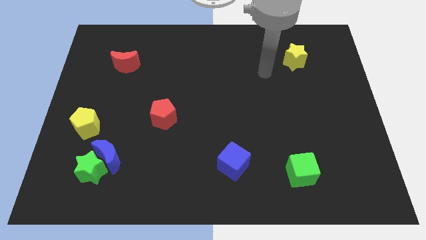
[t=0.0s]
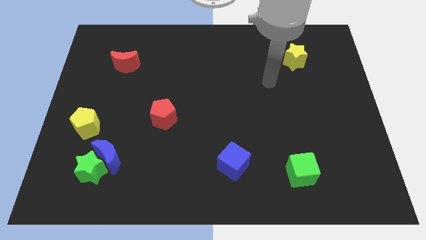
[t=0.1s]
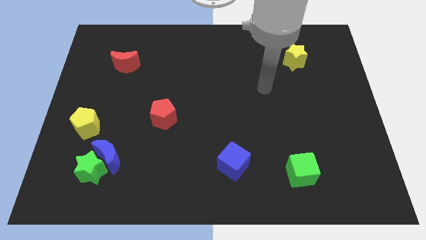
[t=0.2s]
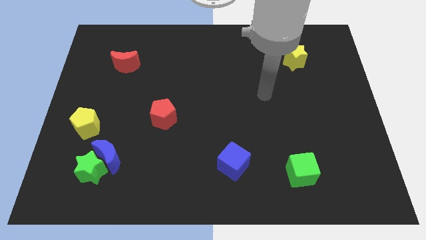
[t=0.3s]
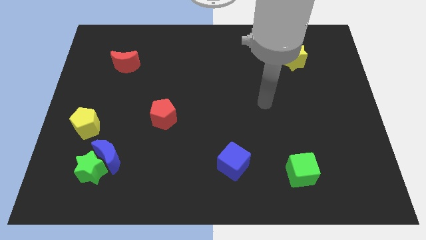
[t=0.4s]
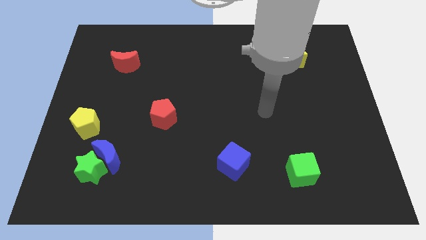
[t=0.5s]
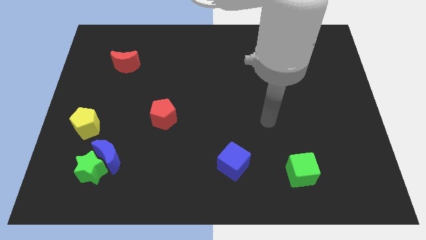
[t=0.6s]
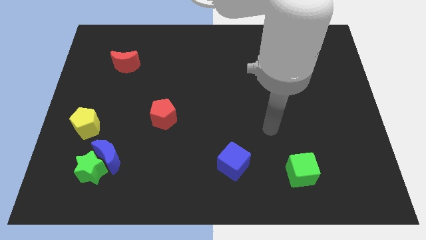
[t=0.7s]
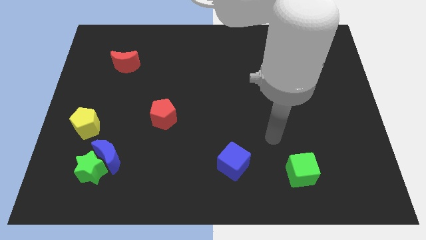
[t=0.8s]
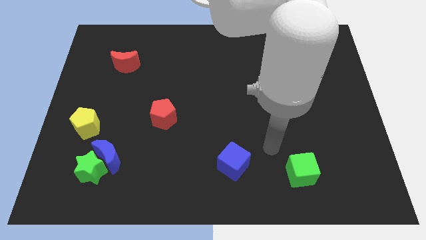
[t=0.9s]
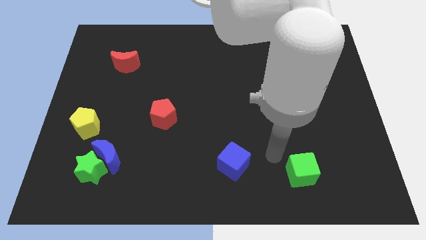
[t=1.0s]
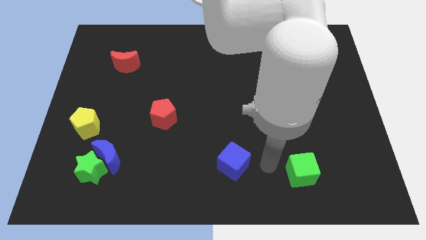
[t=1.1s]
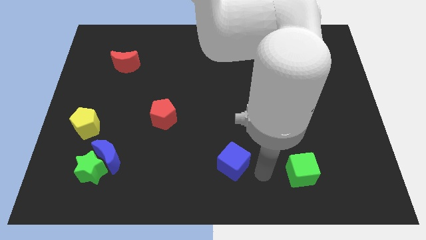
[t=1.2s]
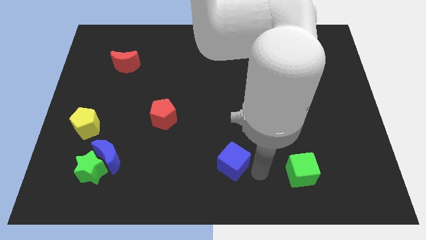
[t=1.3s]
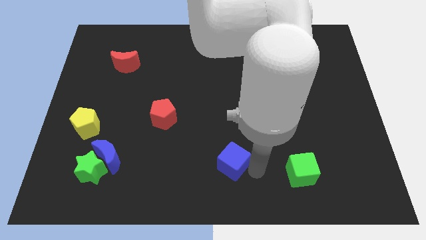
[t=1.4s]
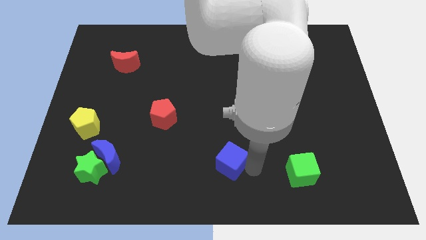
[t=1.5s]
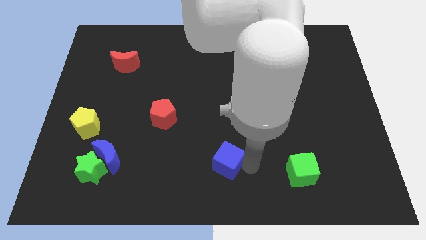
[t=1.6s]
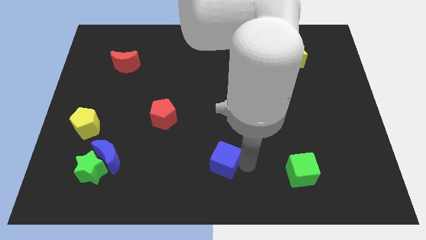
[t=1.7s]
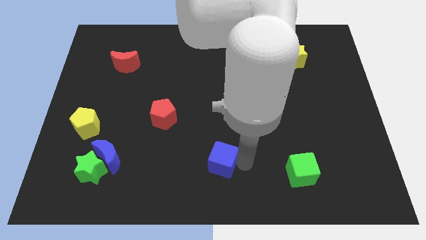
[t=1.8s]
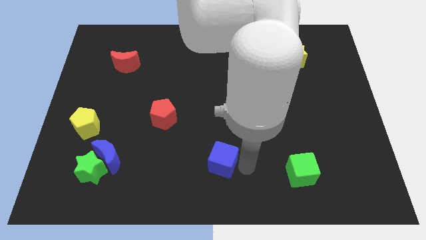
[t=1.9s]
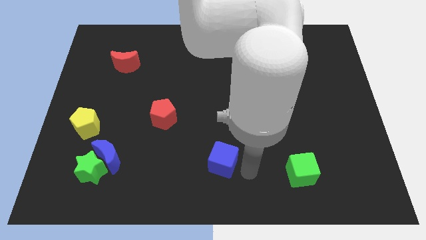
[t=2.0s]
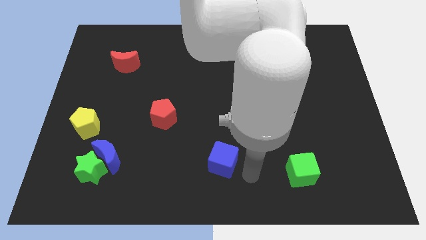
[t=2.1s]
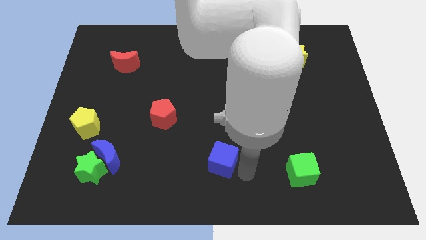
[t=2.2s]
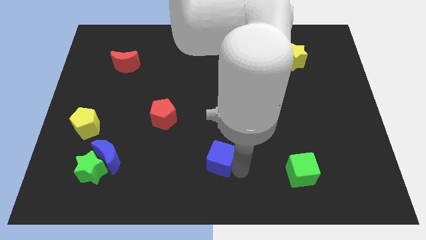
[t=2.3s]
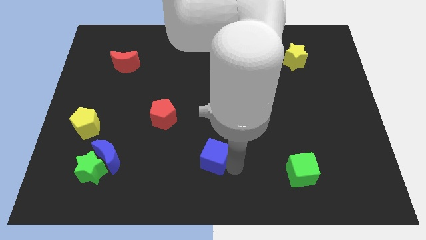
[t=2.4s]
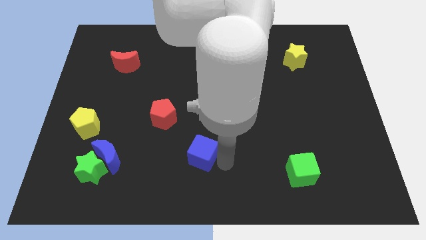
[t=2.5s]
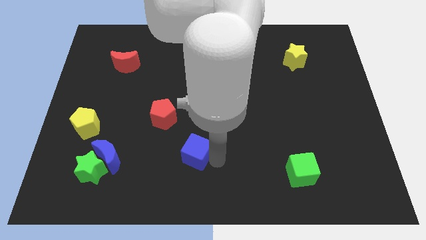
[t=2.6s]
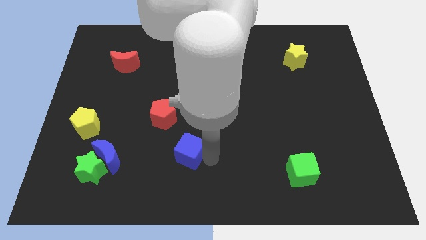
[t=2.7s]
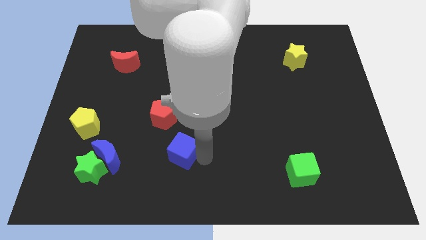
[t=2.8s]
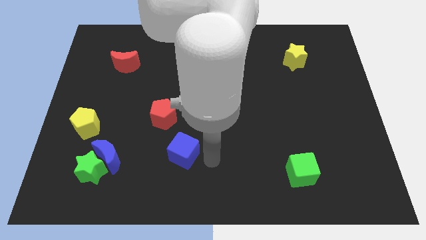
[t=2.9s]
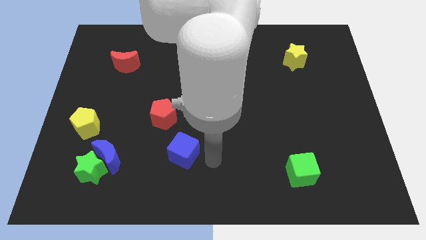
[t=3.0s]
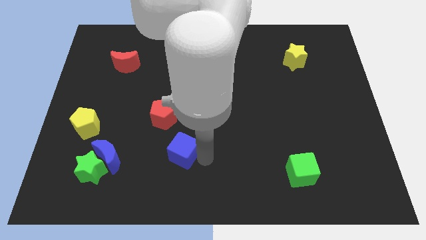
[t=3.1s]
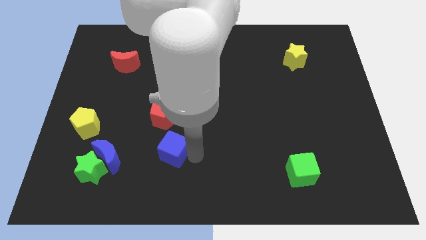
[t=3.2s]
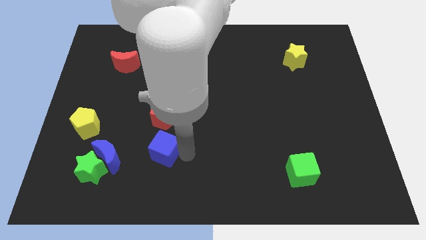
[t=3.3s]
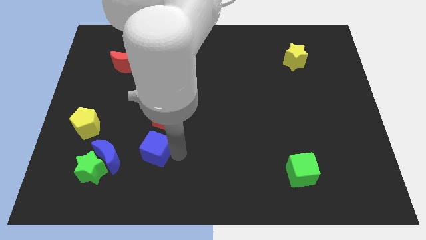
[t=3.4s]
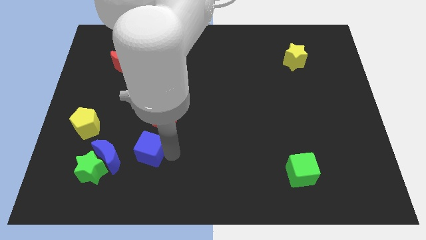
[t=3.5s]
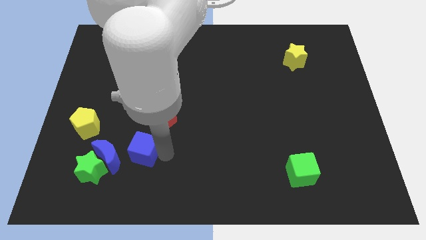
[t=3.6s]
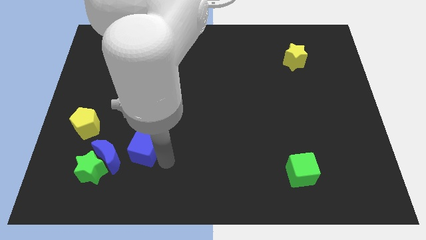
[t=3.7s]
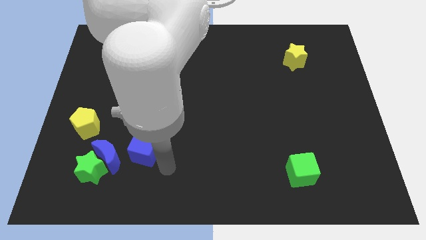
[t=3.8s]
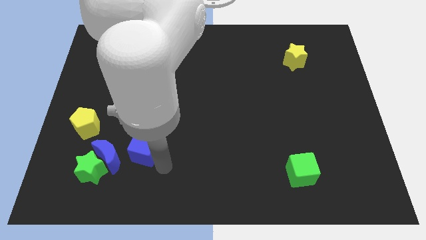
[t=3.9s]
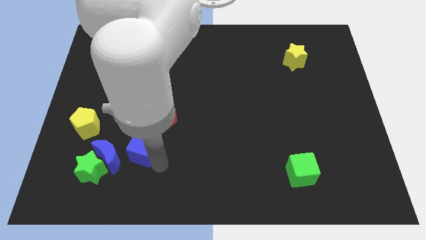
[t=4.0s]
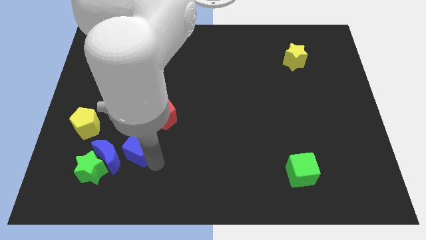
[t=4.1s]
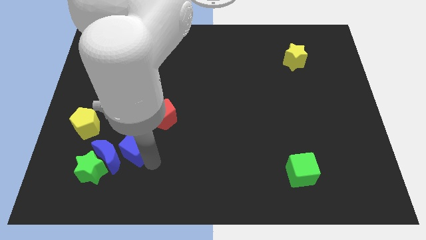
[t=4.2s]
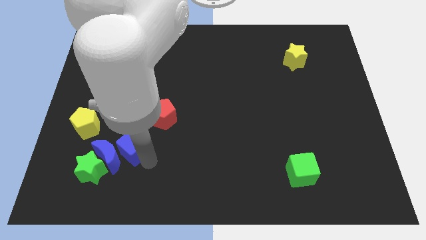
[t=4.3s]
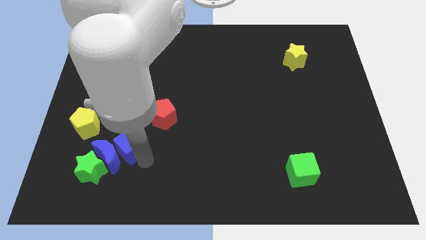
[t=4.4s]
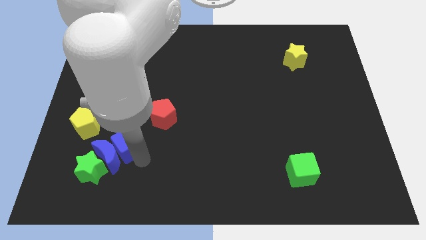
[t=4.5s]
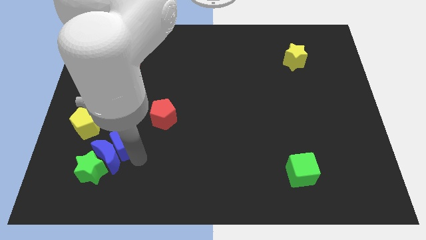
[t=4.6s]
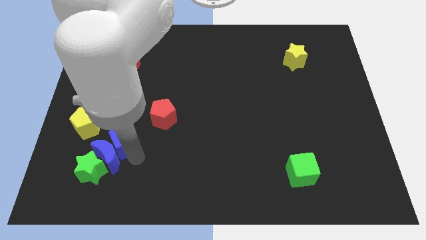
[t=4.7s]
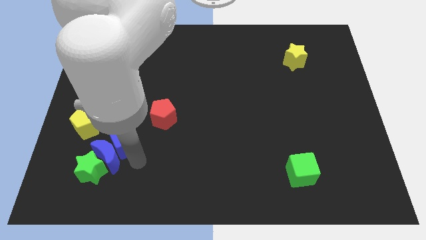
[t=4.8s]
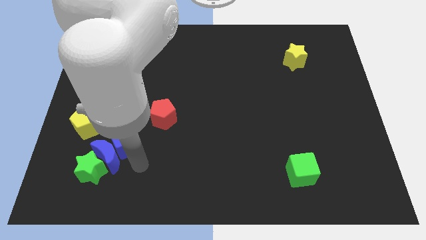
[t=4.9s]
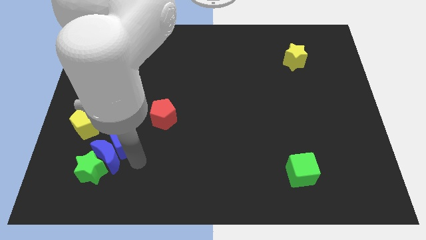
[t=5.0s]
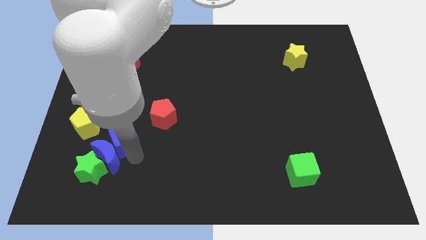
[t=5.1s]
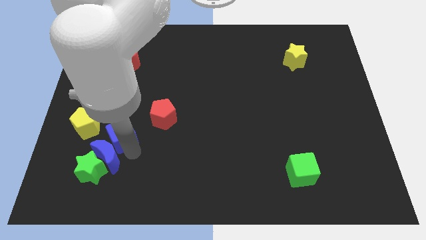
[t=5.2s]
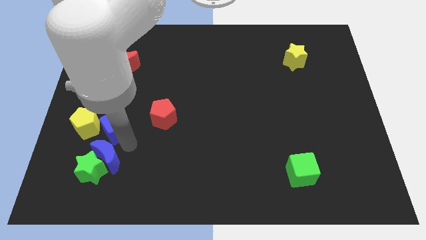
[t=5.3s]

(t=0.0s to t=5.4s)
move the blue cube to the top side of the green star

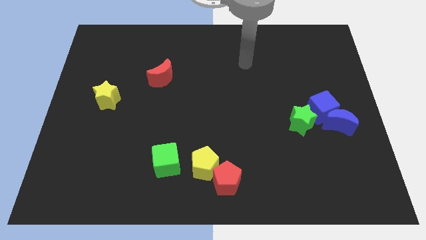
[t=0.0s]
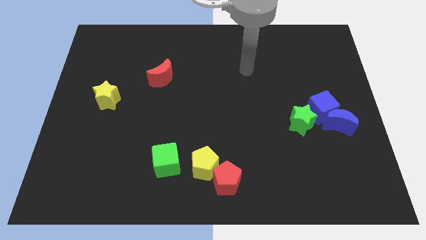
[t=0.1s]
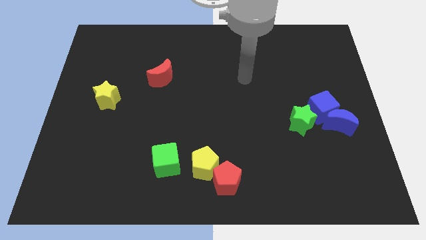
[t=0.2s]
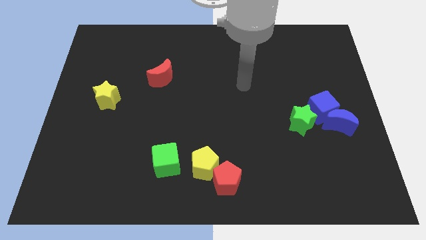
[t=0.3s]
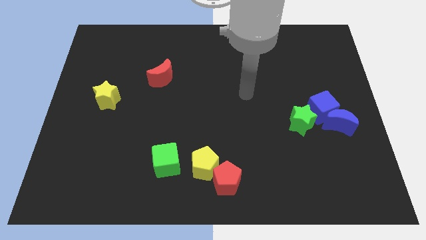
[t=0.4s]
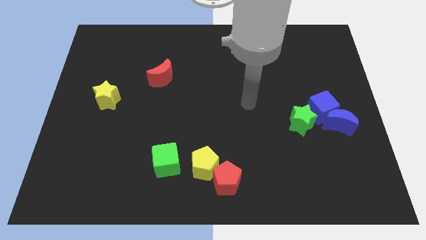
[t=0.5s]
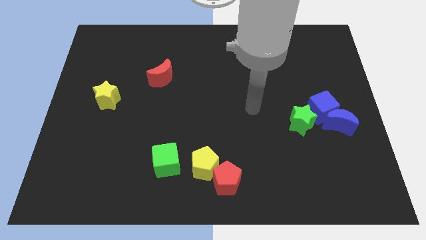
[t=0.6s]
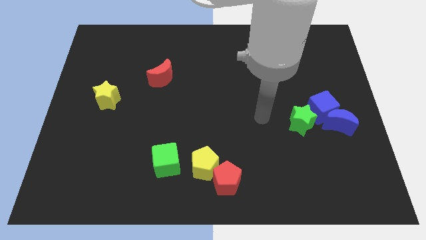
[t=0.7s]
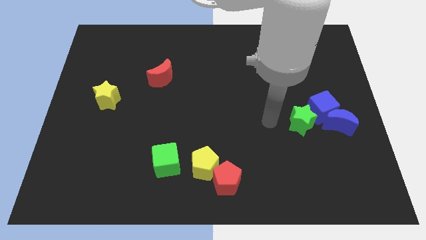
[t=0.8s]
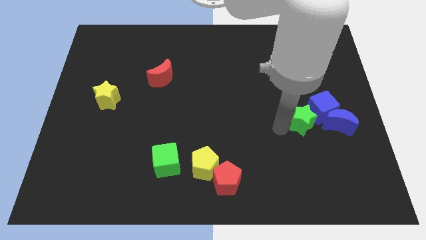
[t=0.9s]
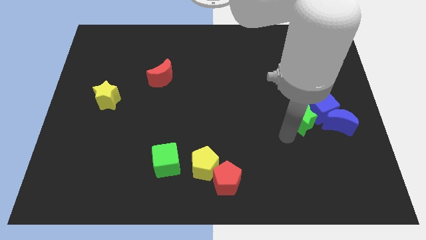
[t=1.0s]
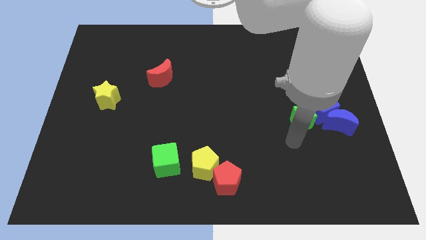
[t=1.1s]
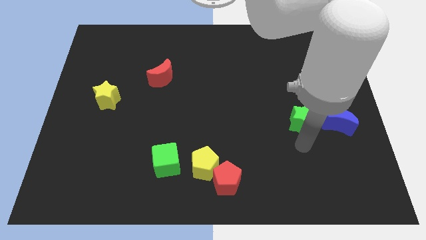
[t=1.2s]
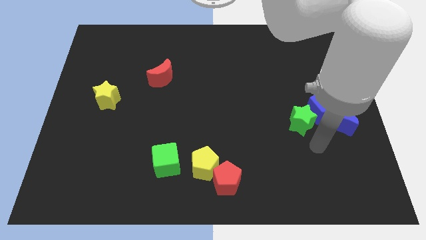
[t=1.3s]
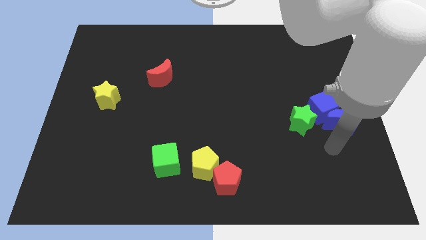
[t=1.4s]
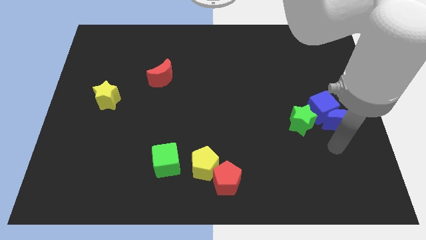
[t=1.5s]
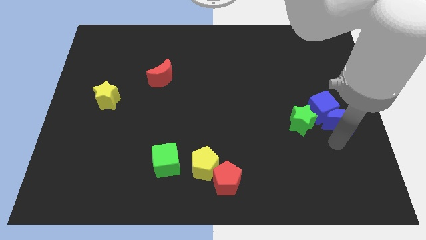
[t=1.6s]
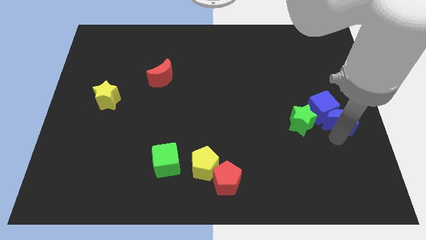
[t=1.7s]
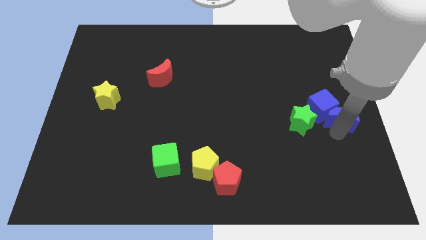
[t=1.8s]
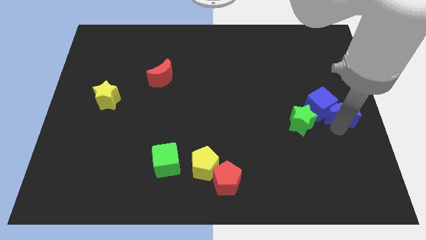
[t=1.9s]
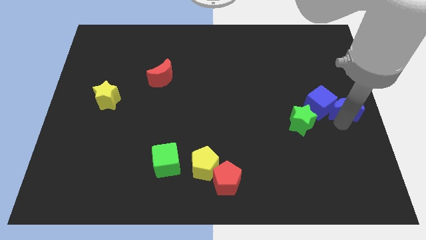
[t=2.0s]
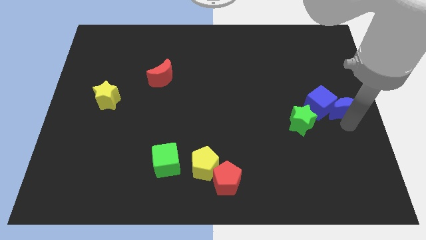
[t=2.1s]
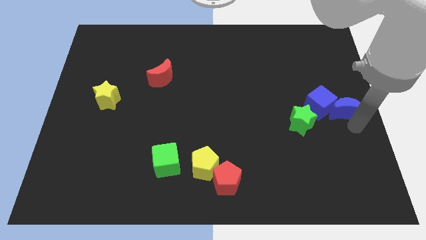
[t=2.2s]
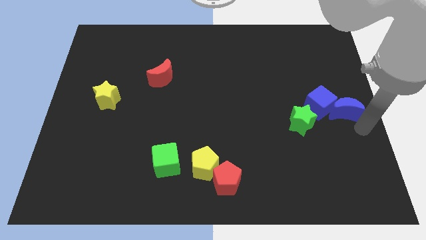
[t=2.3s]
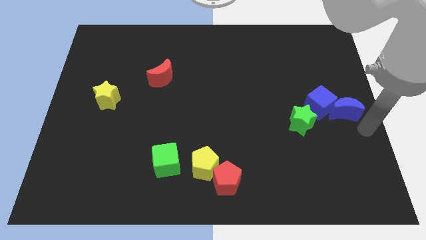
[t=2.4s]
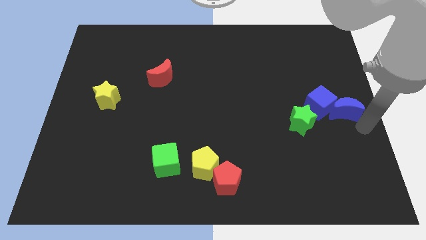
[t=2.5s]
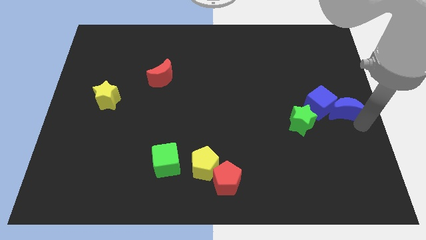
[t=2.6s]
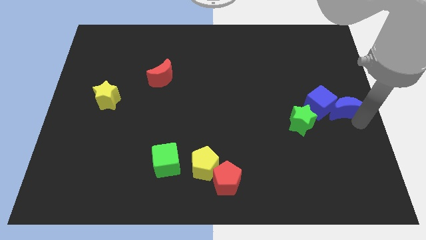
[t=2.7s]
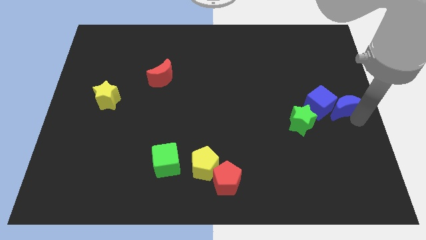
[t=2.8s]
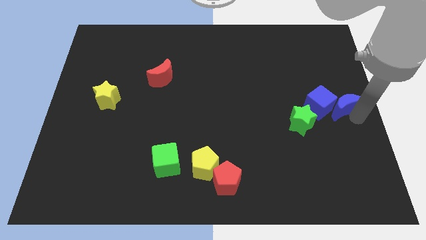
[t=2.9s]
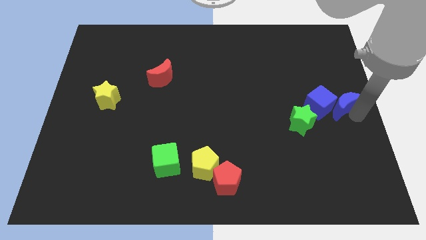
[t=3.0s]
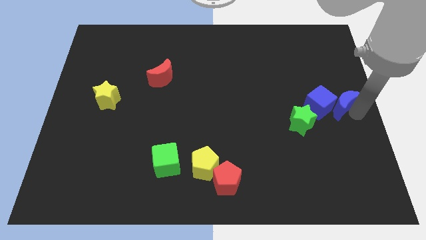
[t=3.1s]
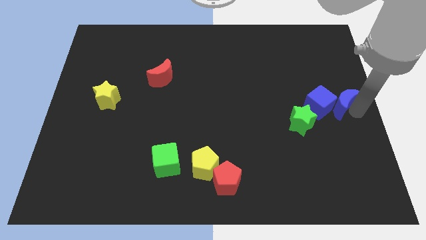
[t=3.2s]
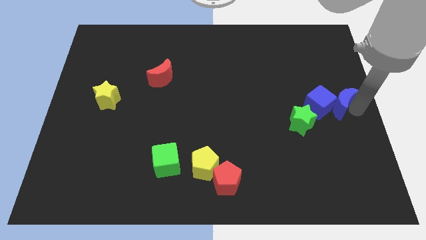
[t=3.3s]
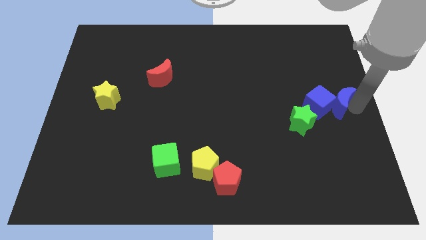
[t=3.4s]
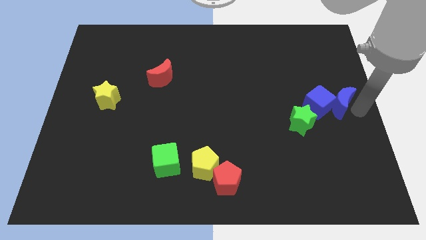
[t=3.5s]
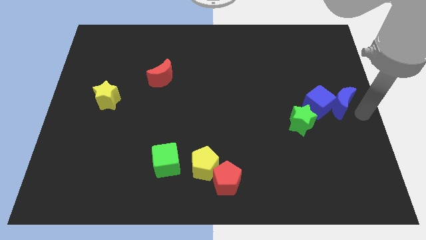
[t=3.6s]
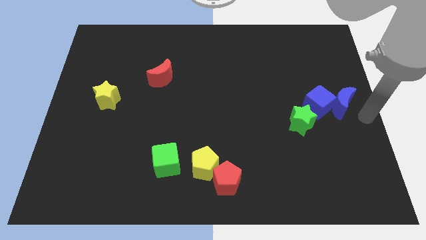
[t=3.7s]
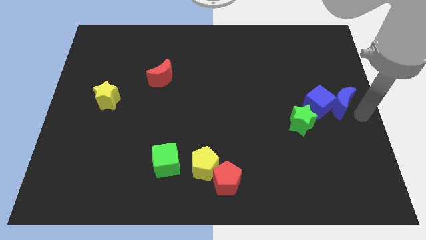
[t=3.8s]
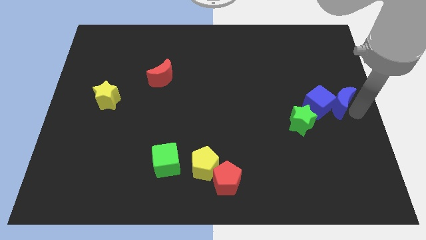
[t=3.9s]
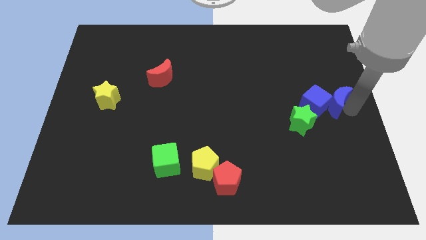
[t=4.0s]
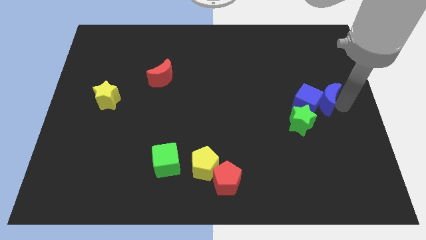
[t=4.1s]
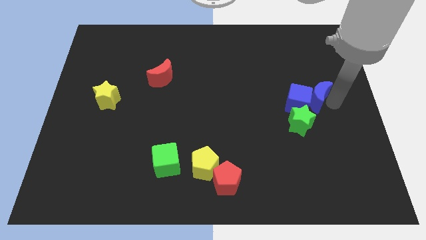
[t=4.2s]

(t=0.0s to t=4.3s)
move the blue moon above the green star
